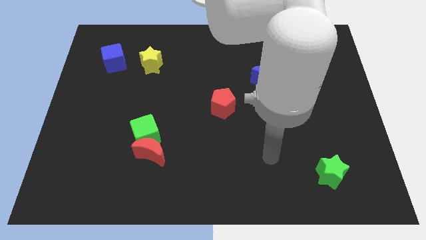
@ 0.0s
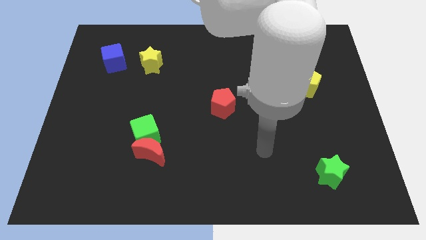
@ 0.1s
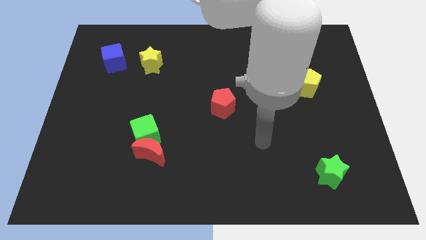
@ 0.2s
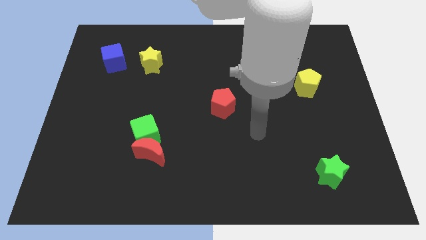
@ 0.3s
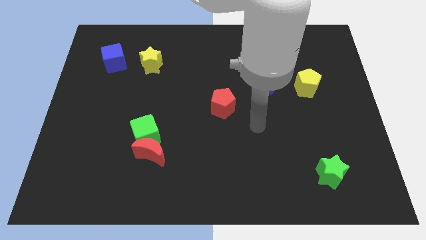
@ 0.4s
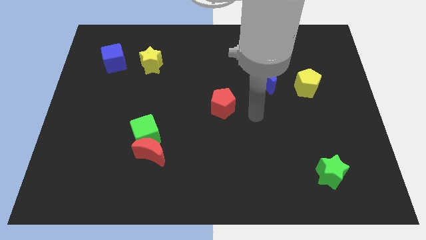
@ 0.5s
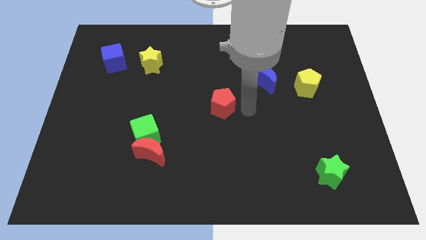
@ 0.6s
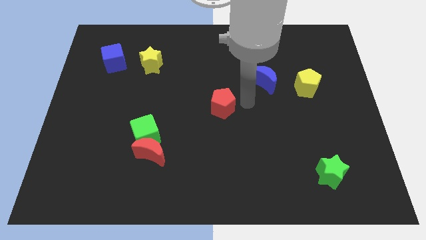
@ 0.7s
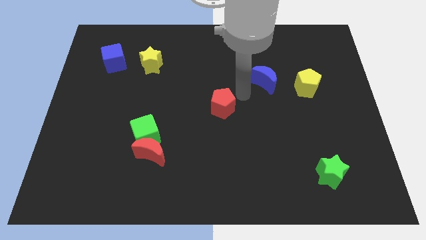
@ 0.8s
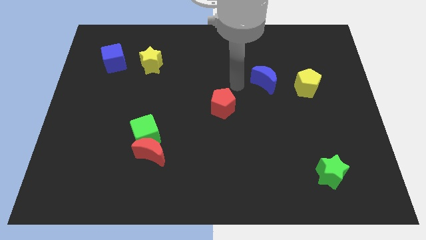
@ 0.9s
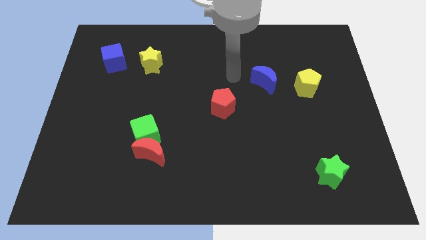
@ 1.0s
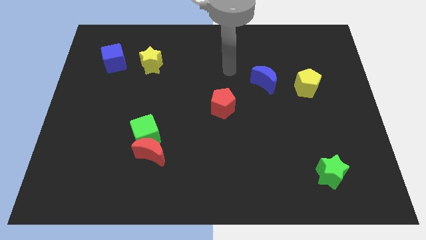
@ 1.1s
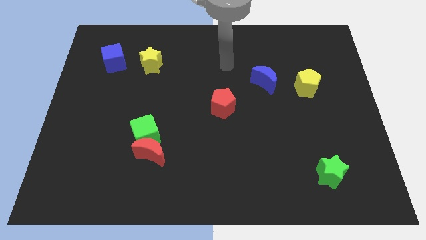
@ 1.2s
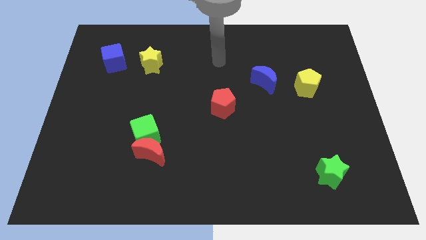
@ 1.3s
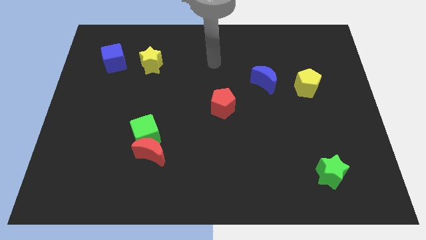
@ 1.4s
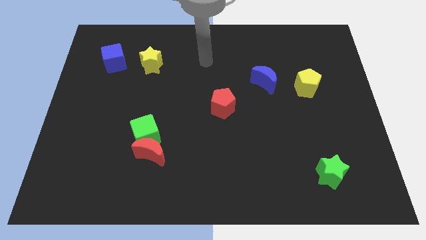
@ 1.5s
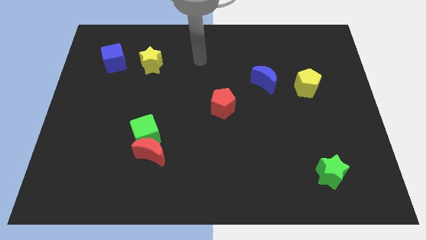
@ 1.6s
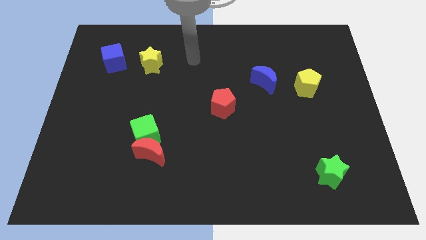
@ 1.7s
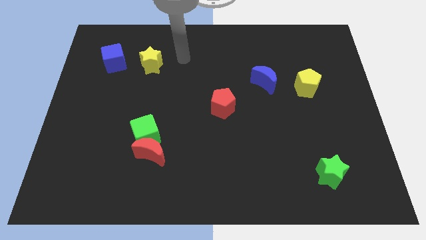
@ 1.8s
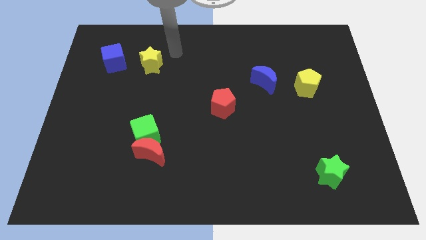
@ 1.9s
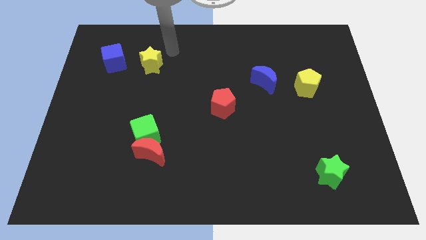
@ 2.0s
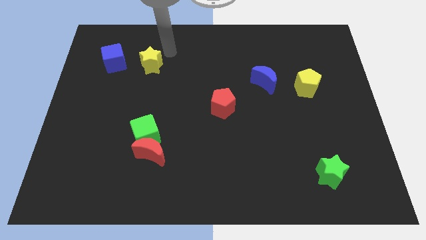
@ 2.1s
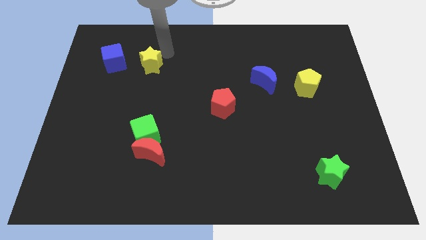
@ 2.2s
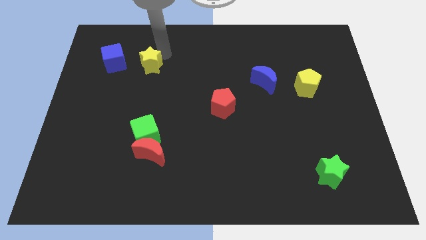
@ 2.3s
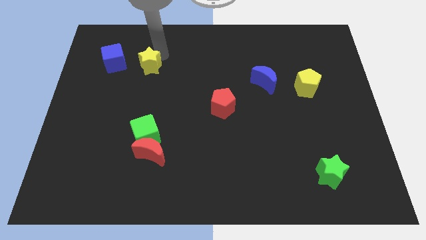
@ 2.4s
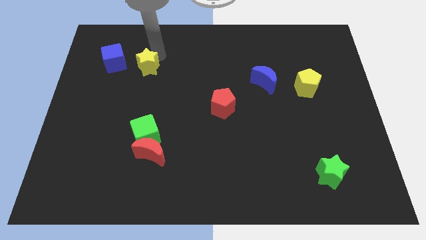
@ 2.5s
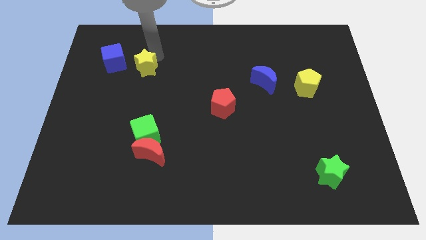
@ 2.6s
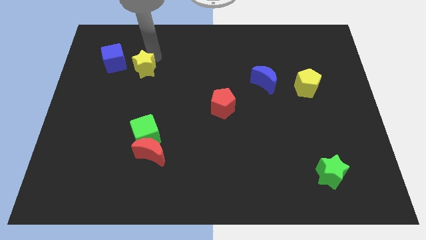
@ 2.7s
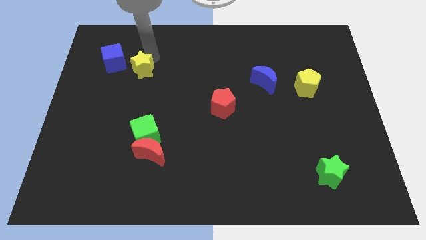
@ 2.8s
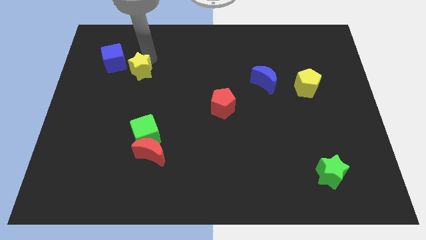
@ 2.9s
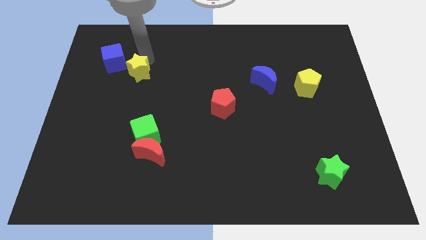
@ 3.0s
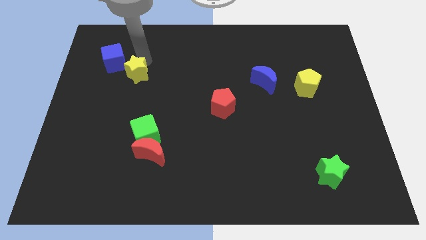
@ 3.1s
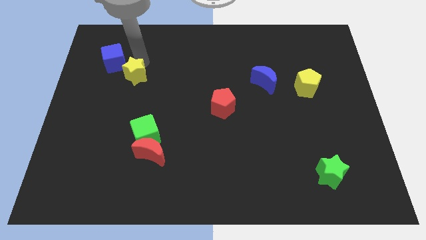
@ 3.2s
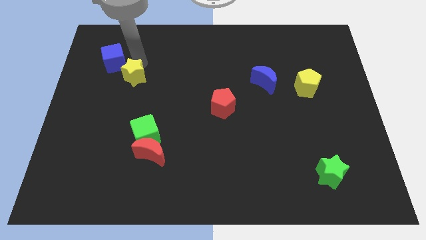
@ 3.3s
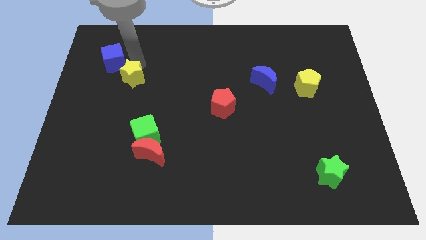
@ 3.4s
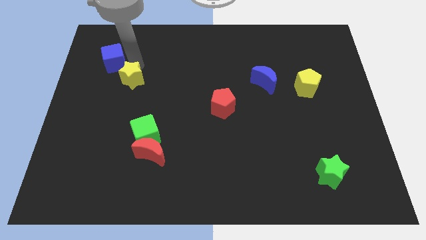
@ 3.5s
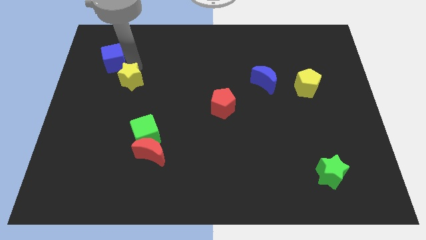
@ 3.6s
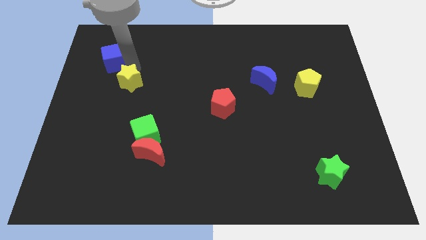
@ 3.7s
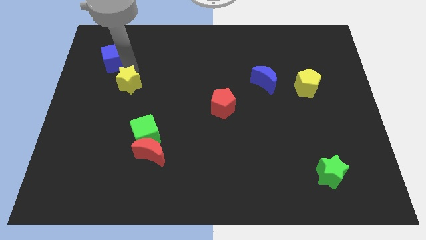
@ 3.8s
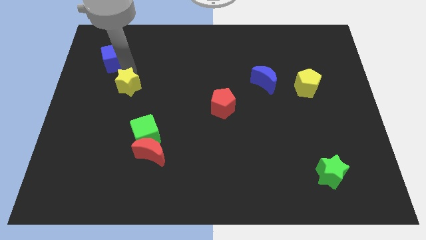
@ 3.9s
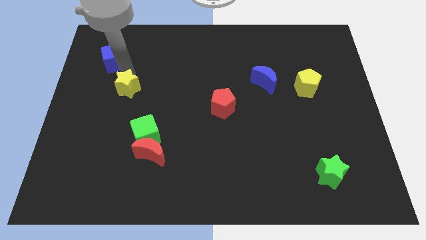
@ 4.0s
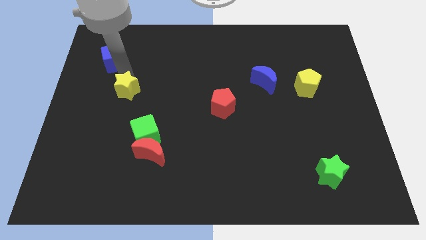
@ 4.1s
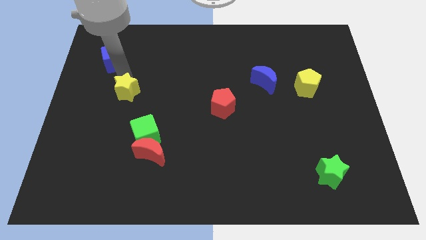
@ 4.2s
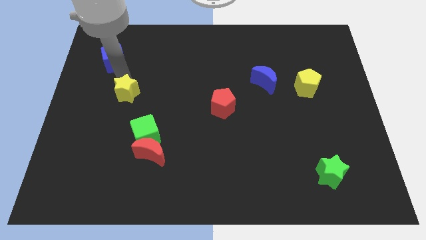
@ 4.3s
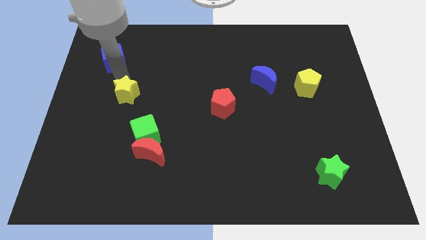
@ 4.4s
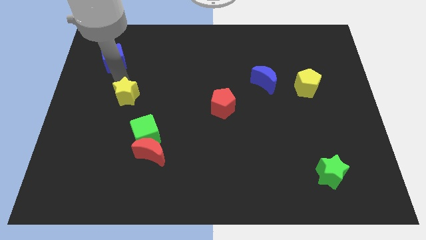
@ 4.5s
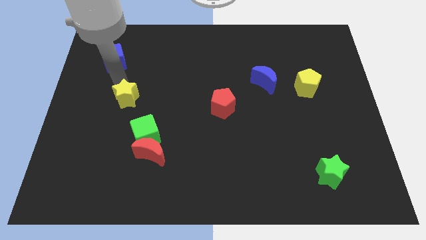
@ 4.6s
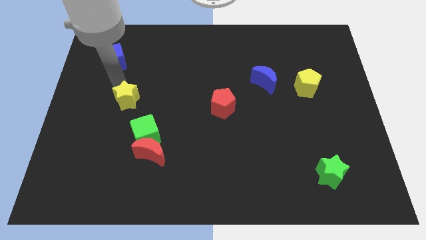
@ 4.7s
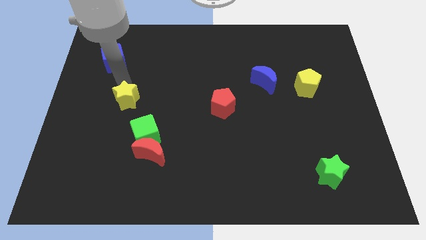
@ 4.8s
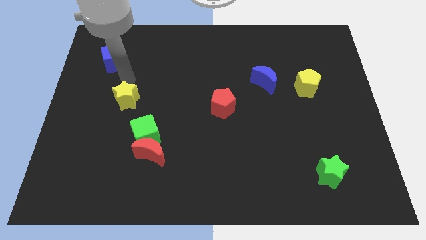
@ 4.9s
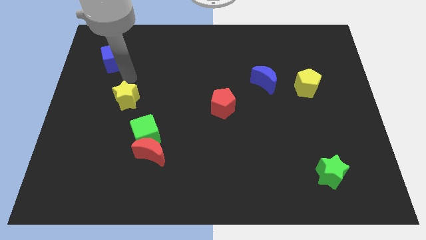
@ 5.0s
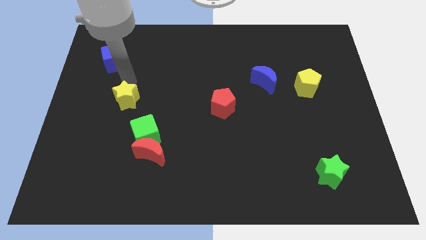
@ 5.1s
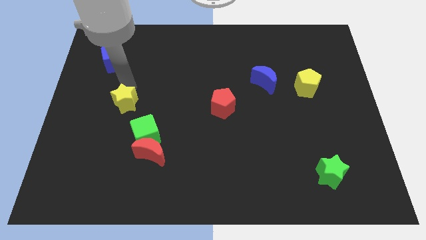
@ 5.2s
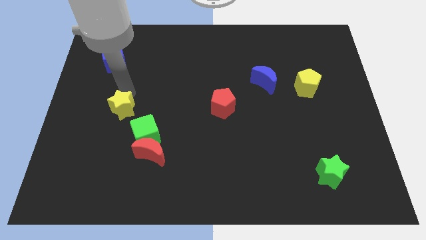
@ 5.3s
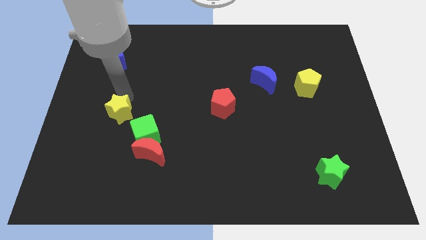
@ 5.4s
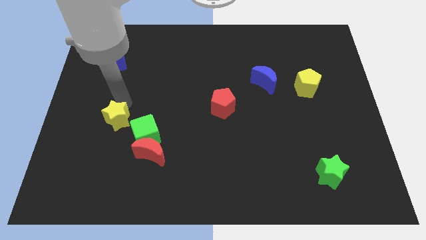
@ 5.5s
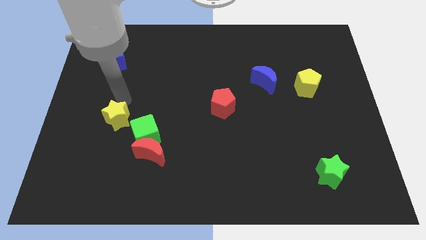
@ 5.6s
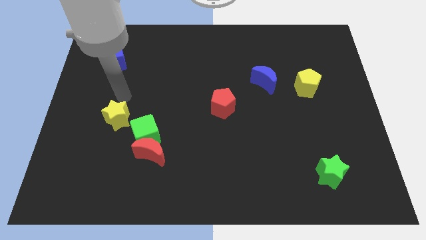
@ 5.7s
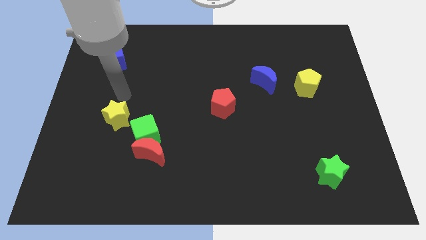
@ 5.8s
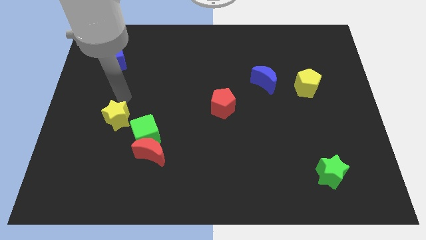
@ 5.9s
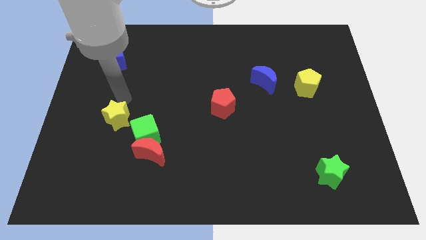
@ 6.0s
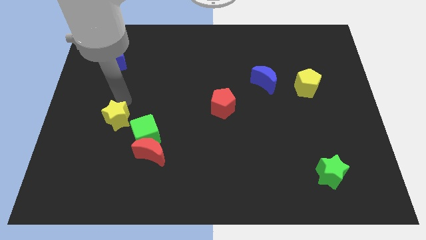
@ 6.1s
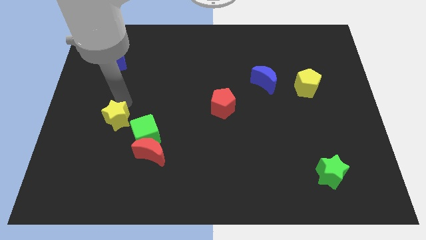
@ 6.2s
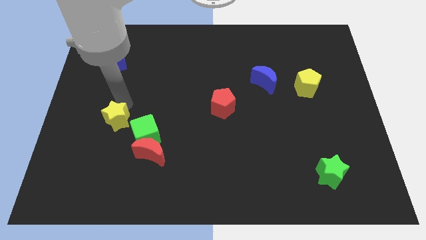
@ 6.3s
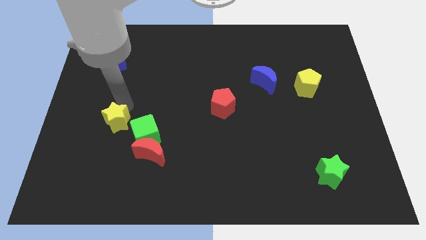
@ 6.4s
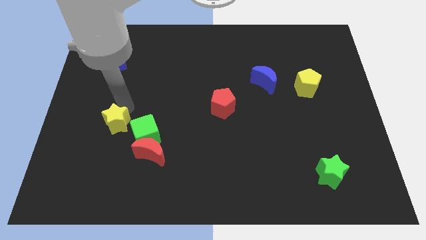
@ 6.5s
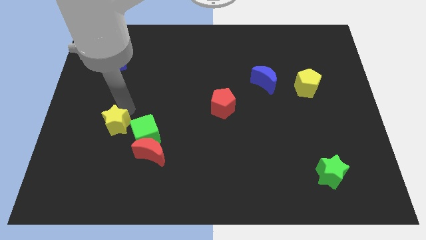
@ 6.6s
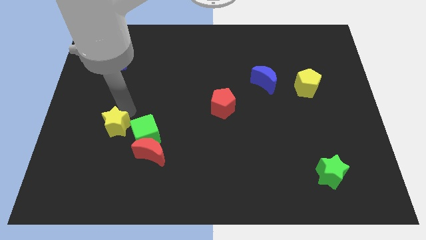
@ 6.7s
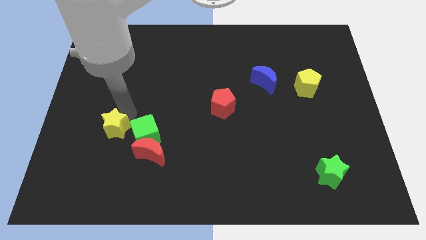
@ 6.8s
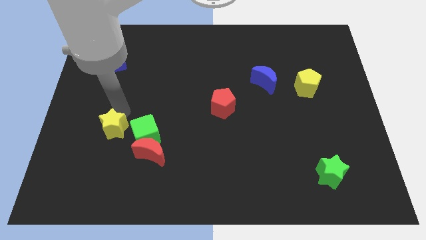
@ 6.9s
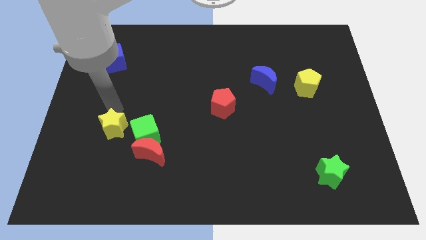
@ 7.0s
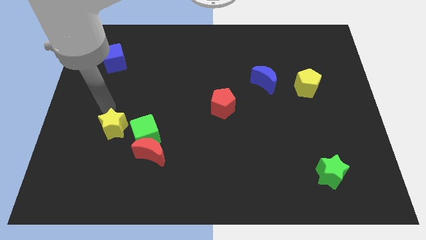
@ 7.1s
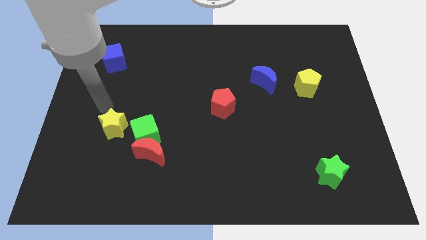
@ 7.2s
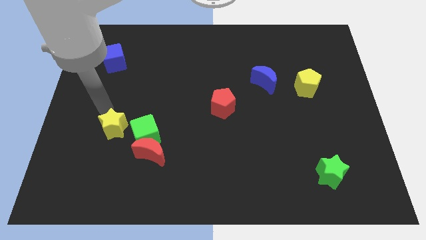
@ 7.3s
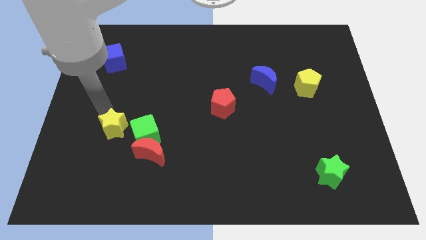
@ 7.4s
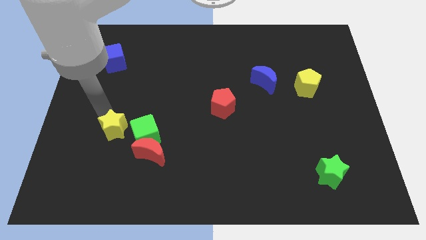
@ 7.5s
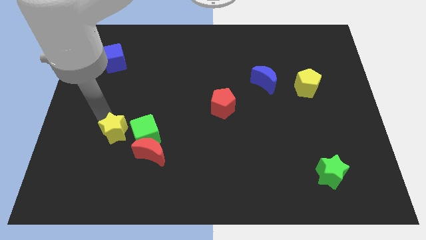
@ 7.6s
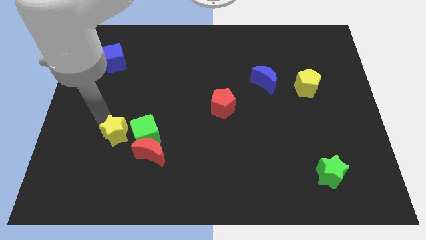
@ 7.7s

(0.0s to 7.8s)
slide the yellow star downwards

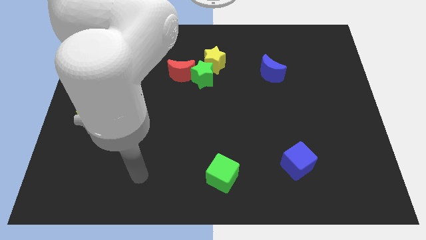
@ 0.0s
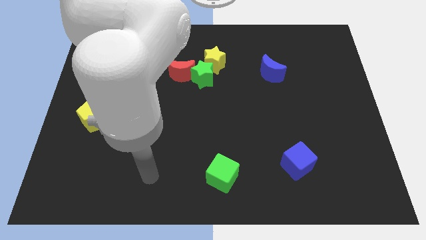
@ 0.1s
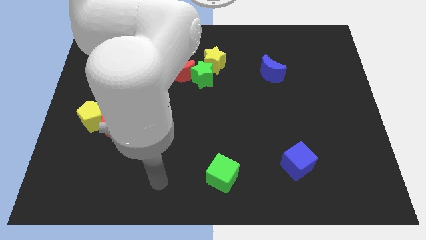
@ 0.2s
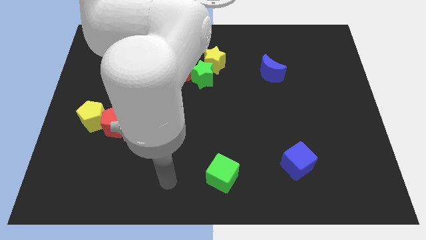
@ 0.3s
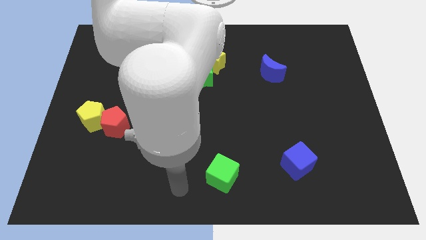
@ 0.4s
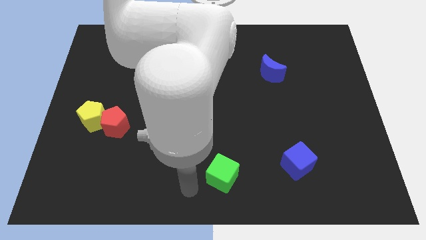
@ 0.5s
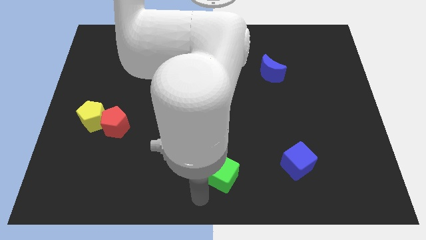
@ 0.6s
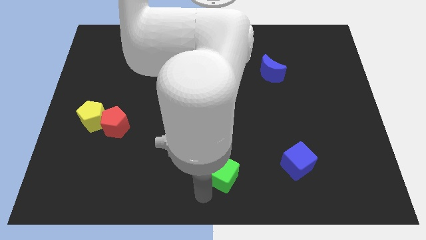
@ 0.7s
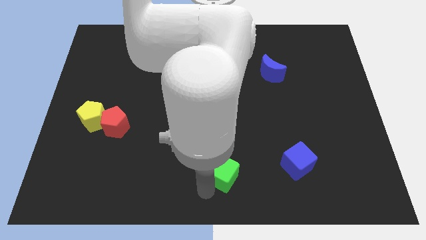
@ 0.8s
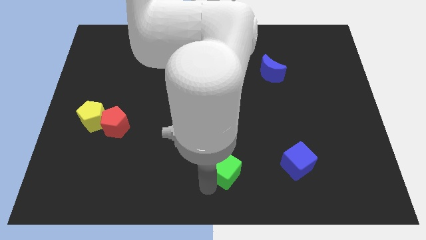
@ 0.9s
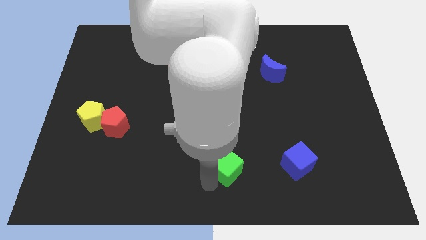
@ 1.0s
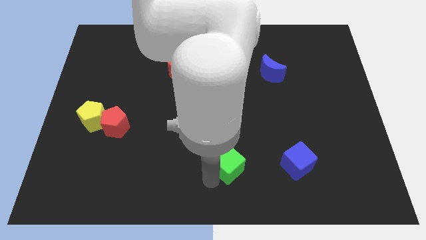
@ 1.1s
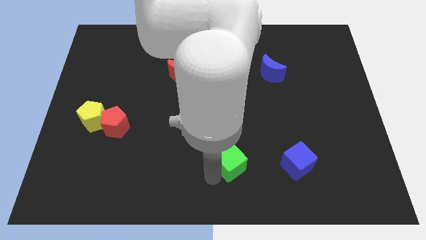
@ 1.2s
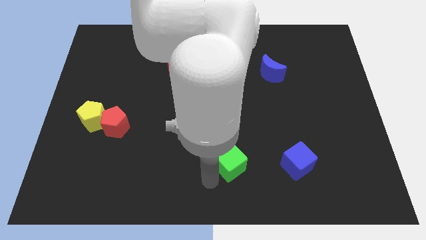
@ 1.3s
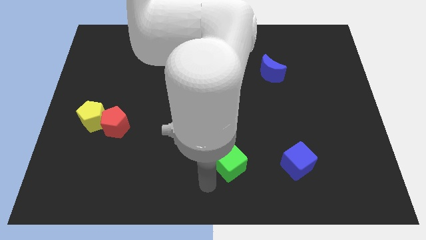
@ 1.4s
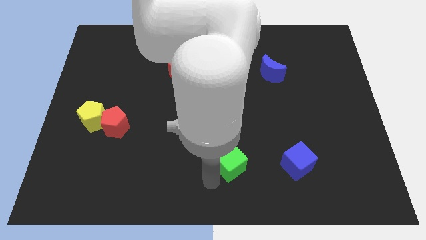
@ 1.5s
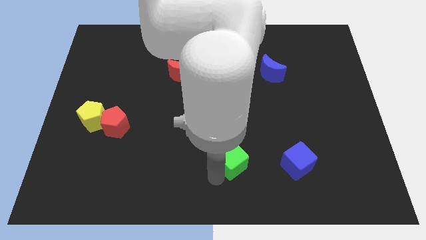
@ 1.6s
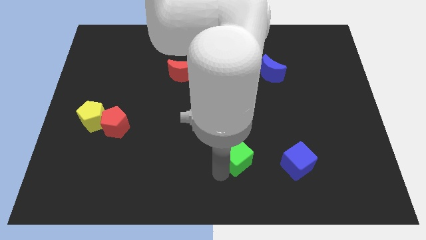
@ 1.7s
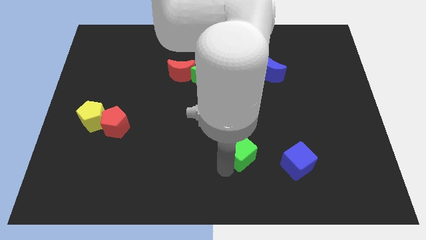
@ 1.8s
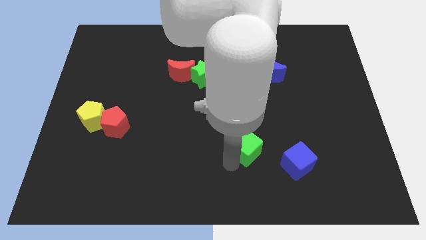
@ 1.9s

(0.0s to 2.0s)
move the green cube upwards and then to the right a bit
